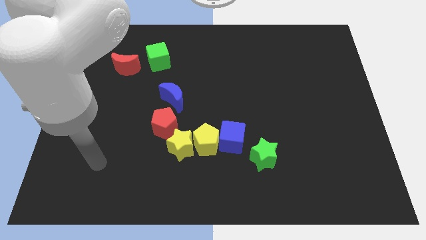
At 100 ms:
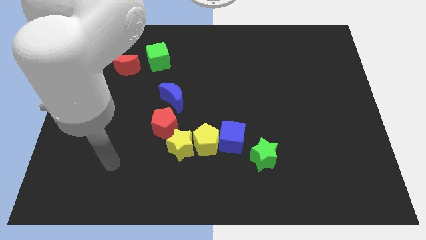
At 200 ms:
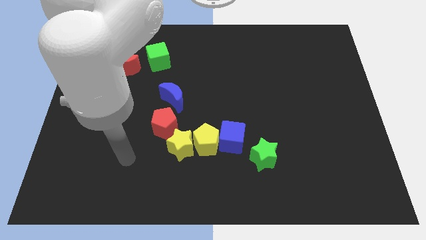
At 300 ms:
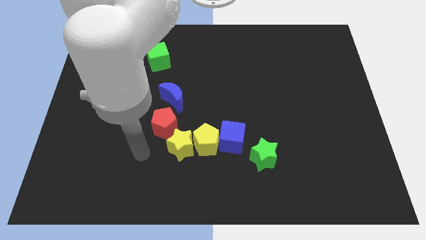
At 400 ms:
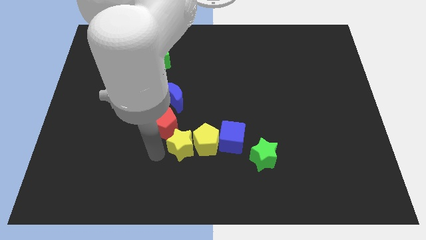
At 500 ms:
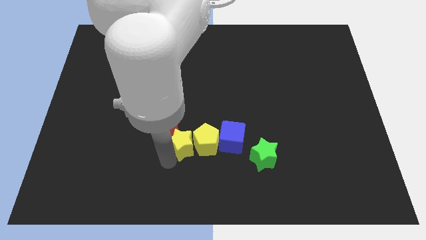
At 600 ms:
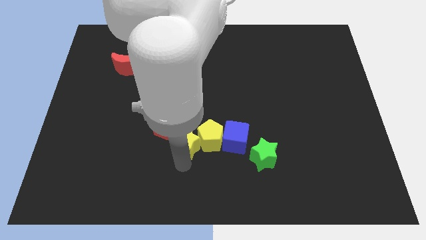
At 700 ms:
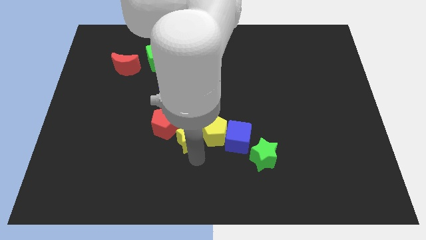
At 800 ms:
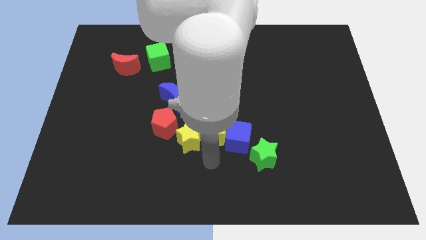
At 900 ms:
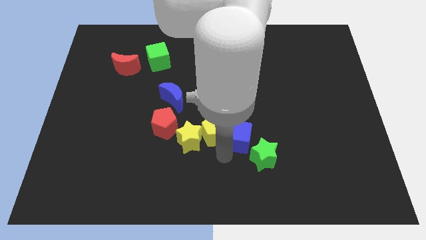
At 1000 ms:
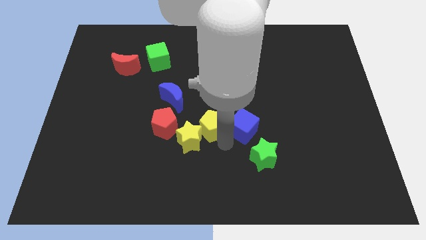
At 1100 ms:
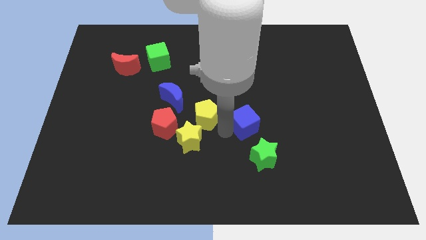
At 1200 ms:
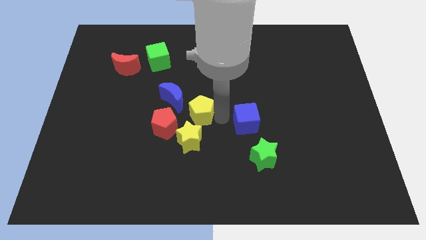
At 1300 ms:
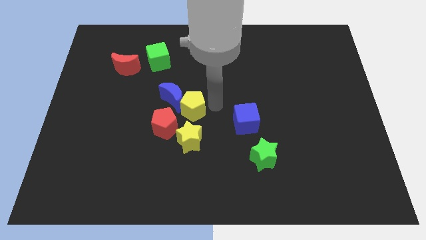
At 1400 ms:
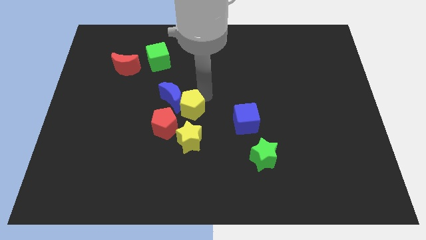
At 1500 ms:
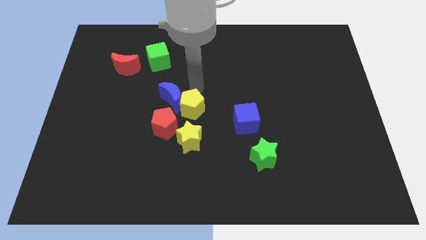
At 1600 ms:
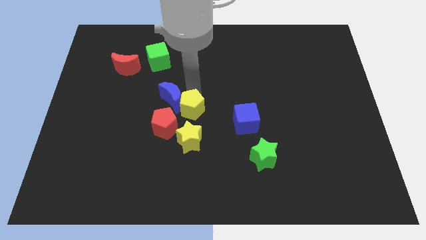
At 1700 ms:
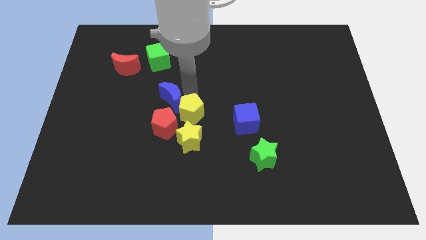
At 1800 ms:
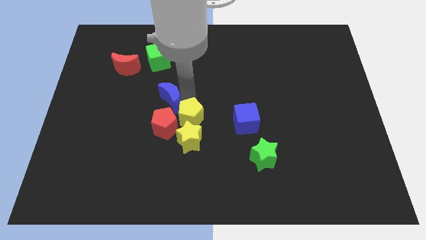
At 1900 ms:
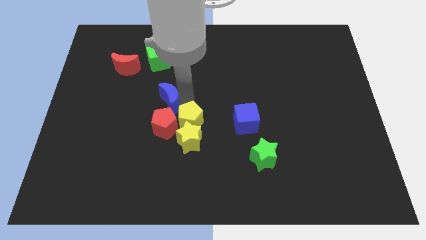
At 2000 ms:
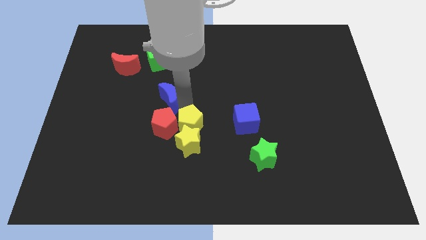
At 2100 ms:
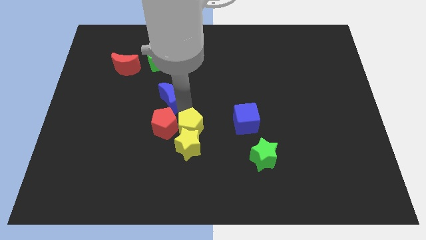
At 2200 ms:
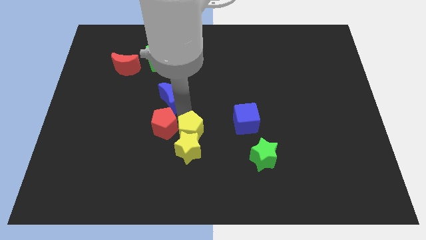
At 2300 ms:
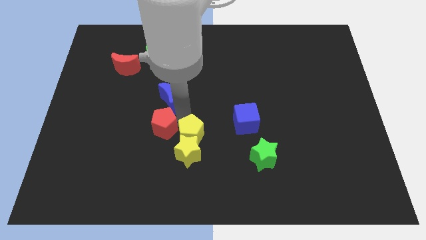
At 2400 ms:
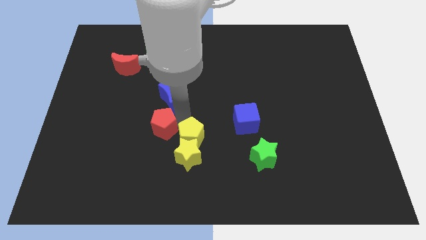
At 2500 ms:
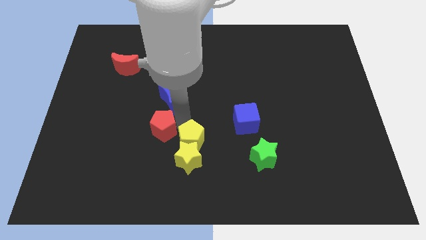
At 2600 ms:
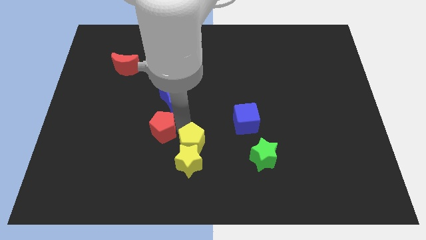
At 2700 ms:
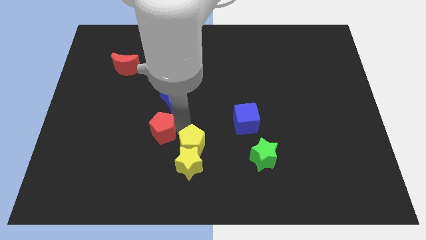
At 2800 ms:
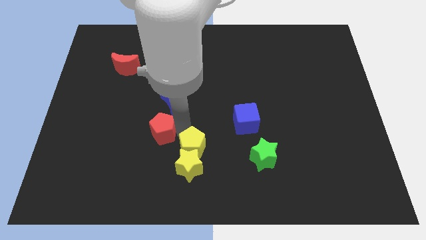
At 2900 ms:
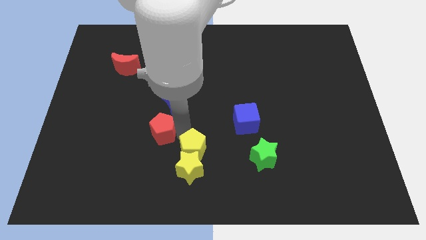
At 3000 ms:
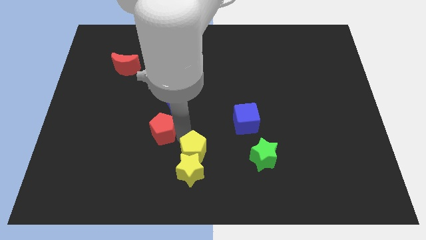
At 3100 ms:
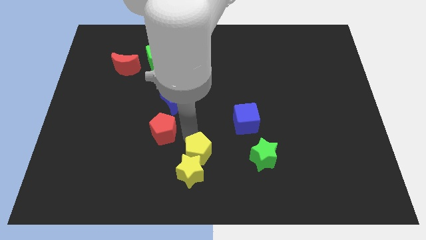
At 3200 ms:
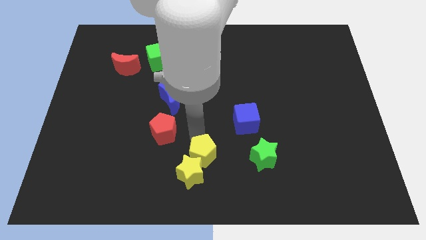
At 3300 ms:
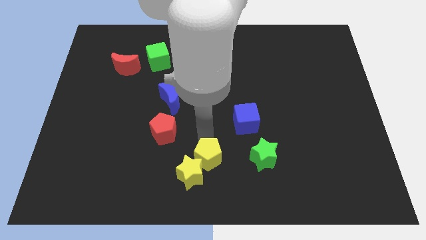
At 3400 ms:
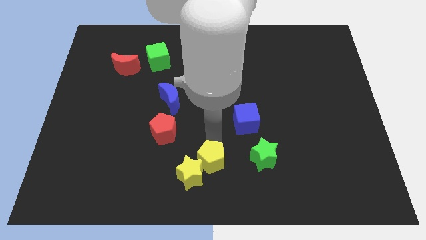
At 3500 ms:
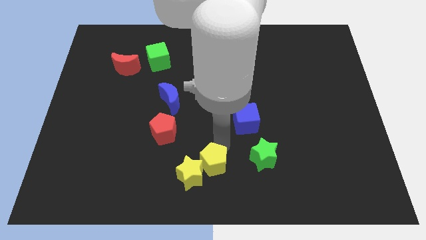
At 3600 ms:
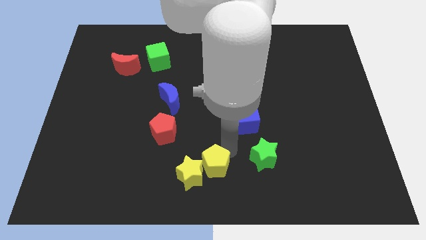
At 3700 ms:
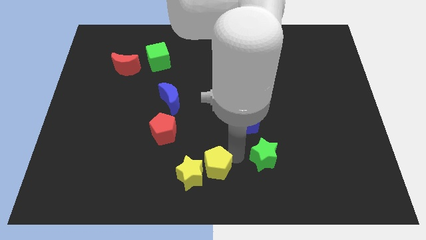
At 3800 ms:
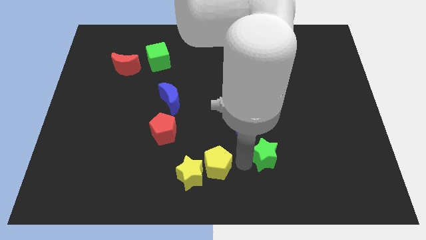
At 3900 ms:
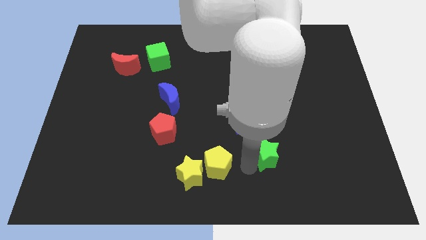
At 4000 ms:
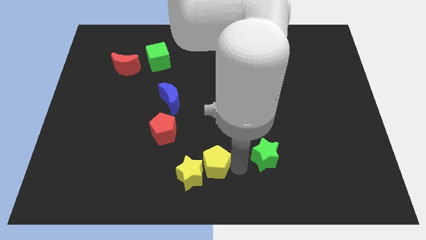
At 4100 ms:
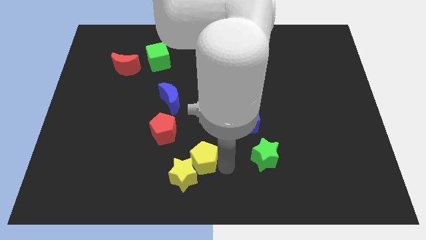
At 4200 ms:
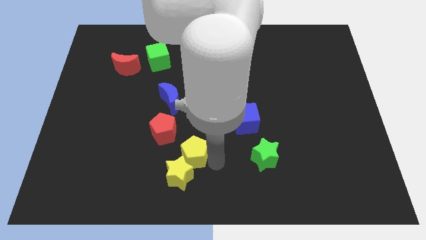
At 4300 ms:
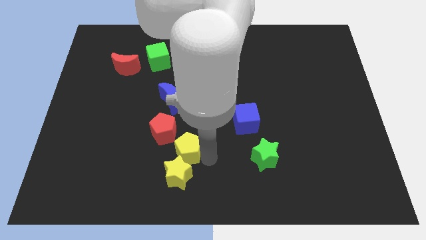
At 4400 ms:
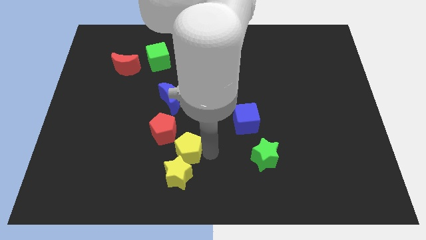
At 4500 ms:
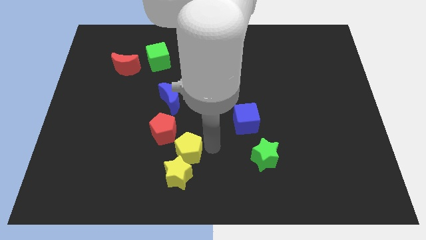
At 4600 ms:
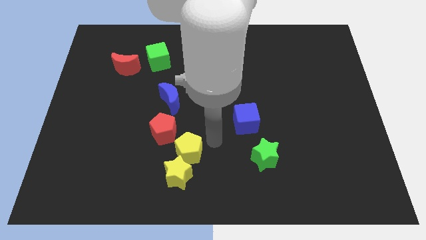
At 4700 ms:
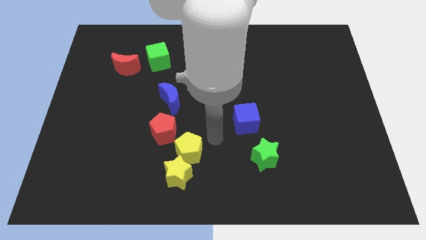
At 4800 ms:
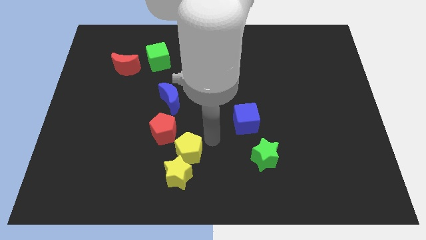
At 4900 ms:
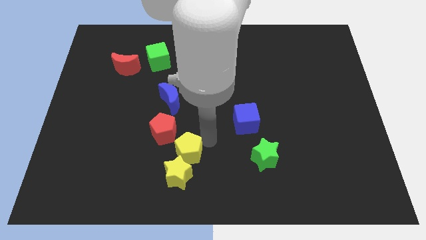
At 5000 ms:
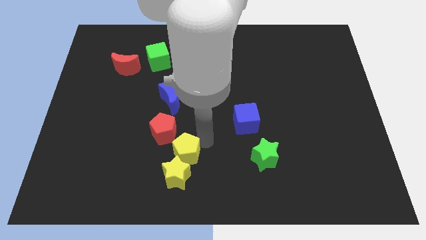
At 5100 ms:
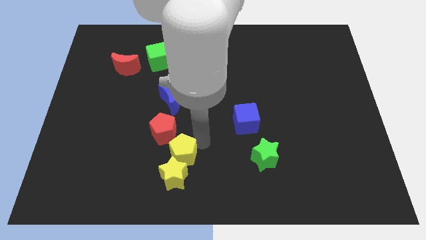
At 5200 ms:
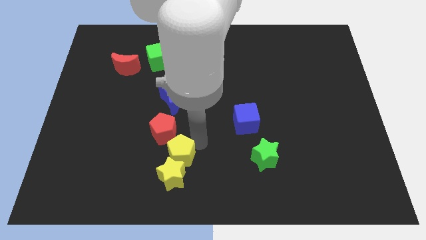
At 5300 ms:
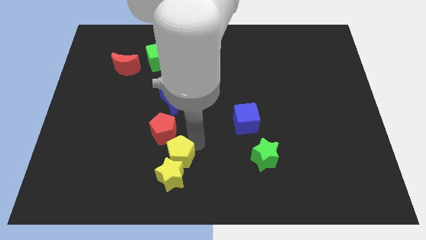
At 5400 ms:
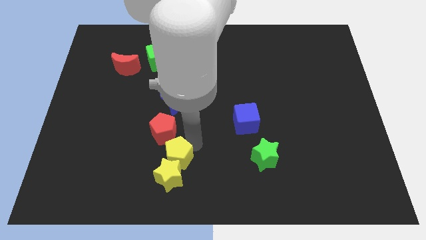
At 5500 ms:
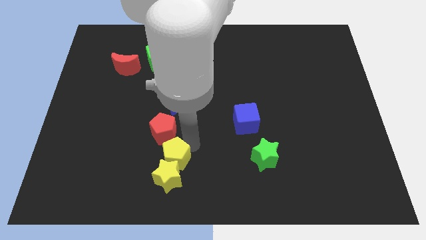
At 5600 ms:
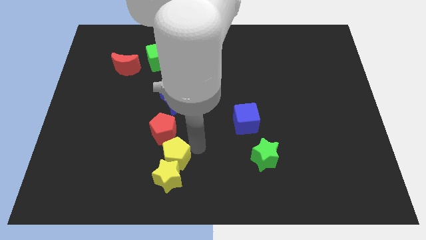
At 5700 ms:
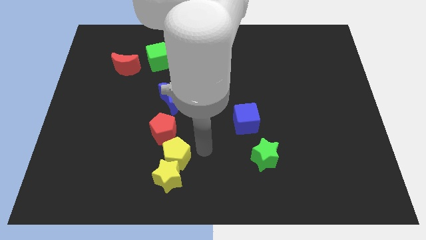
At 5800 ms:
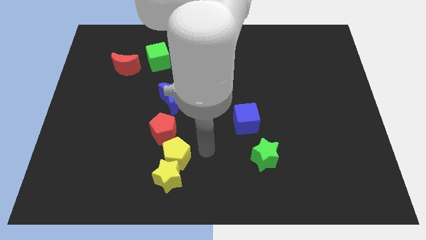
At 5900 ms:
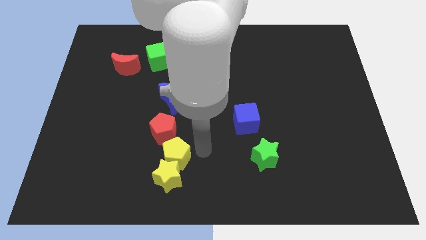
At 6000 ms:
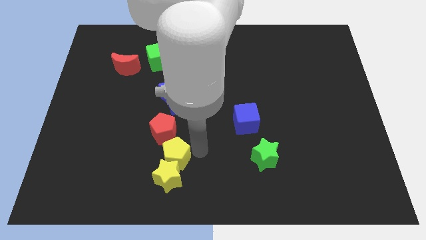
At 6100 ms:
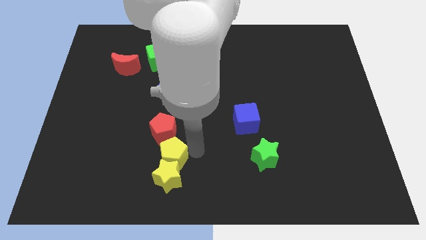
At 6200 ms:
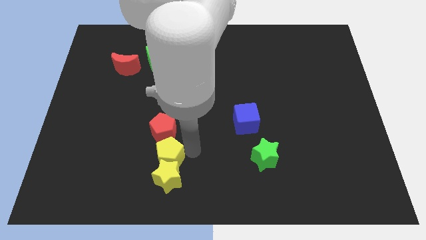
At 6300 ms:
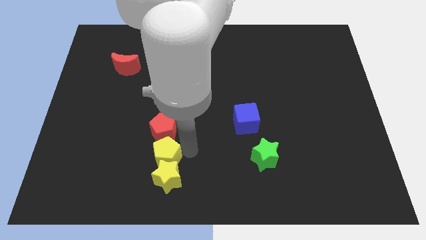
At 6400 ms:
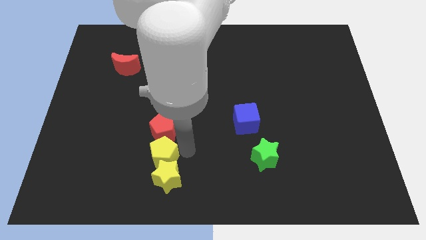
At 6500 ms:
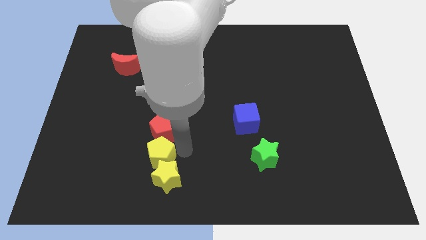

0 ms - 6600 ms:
separate the yellow pentagon from the yellow star and blue cube

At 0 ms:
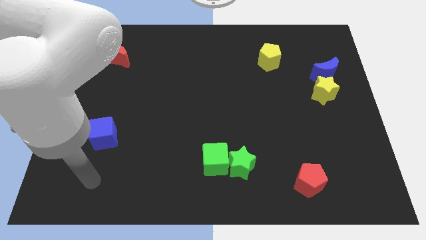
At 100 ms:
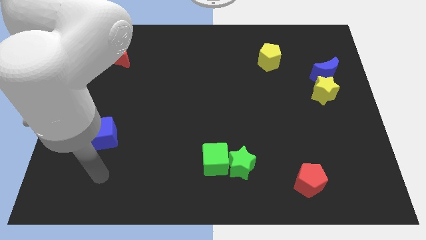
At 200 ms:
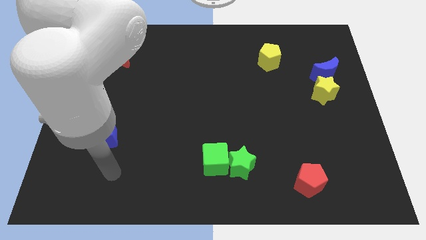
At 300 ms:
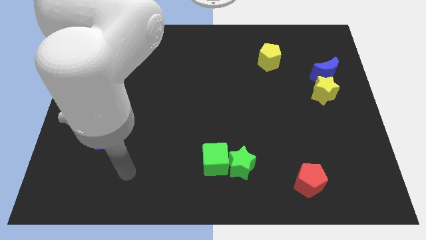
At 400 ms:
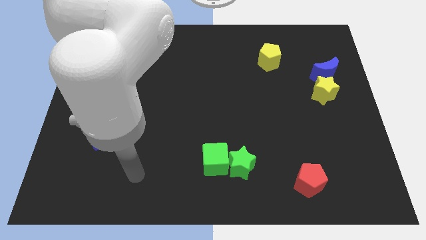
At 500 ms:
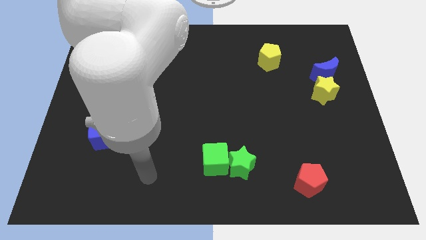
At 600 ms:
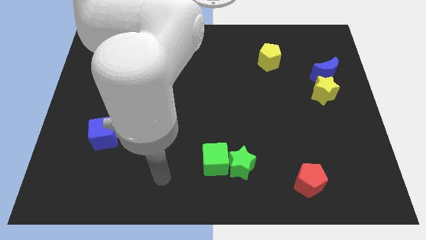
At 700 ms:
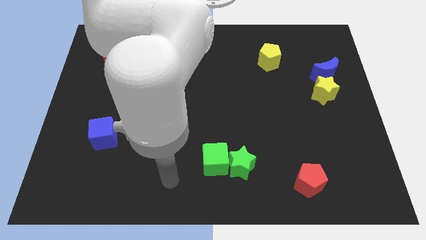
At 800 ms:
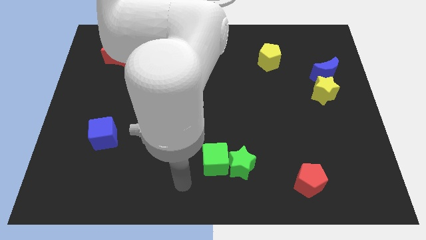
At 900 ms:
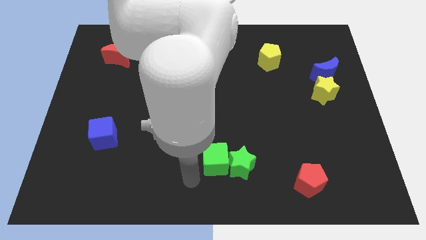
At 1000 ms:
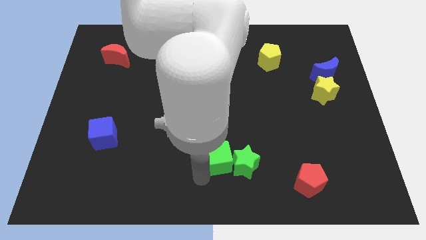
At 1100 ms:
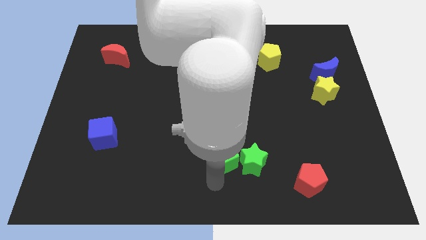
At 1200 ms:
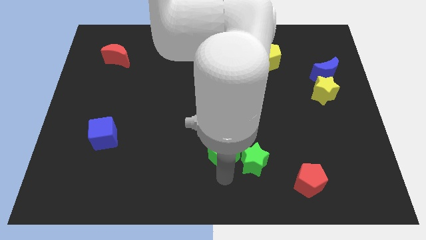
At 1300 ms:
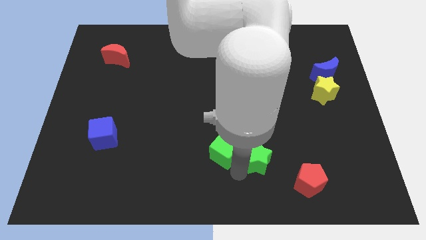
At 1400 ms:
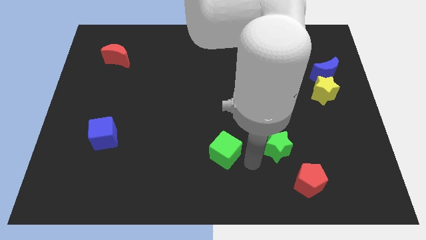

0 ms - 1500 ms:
move the green cube away from the green star

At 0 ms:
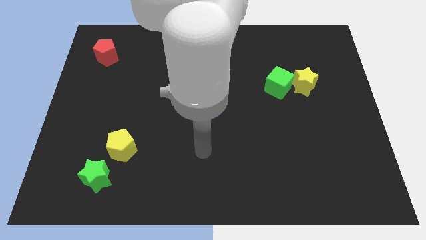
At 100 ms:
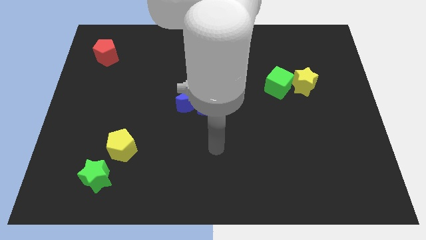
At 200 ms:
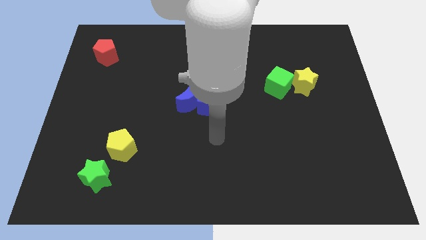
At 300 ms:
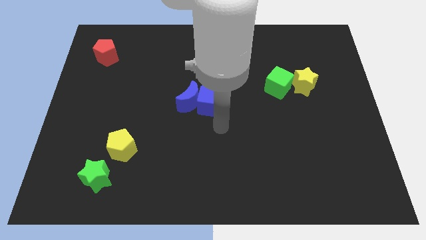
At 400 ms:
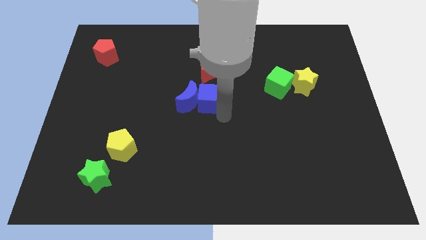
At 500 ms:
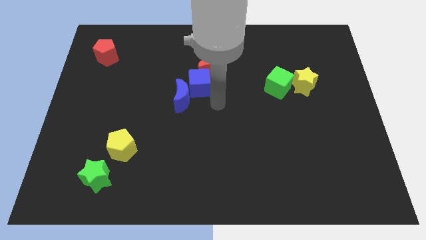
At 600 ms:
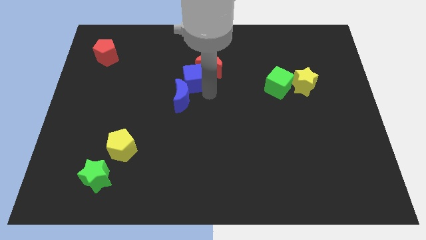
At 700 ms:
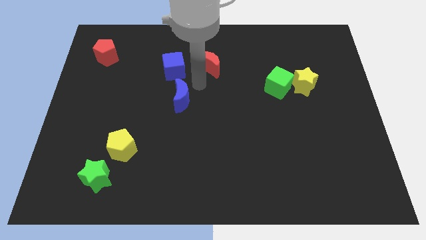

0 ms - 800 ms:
separate the blue moon from the blue cube

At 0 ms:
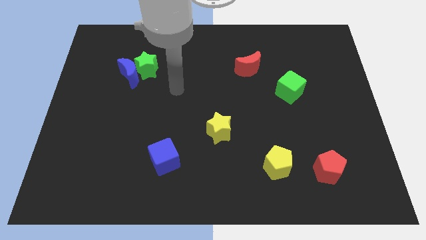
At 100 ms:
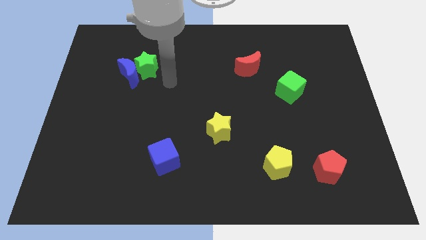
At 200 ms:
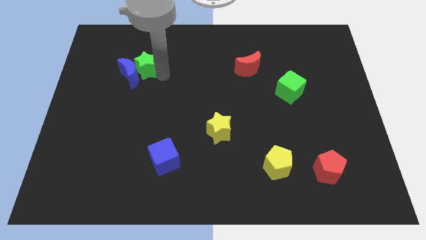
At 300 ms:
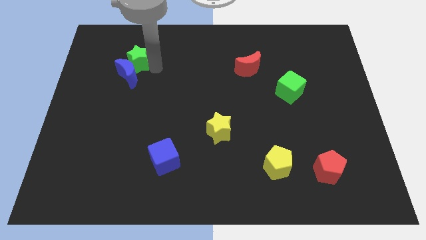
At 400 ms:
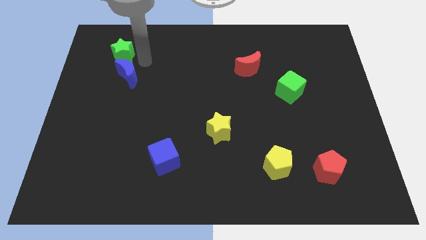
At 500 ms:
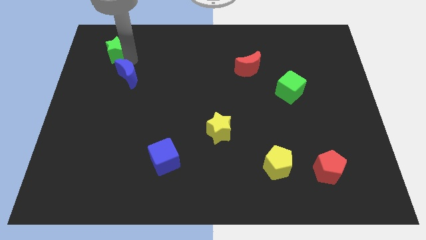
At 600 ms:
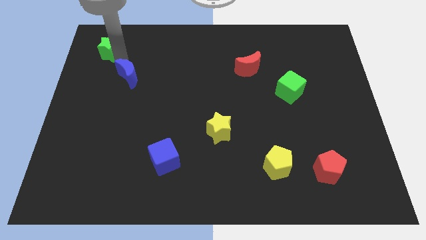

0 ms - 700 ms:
separate the blue moon from the green star
